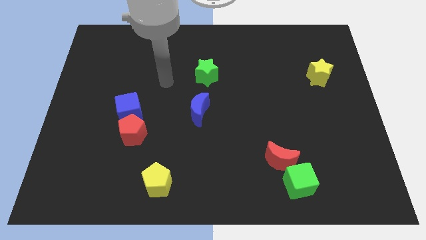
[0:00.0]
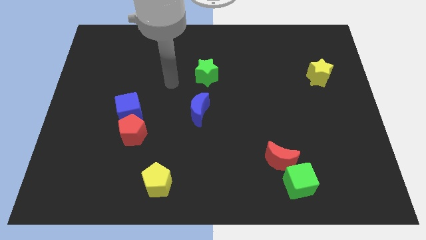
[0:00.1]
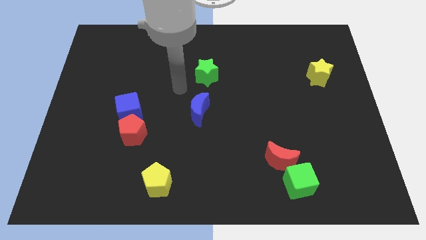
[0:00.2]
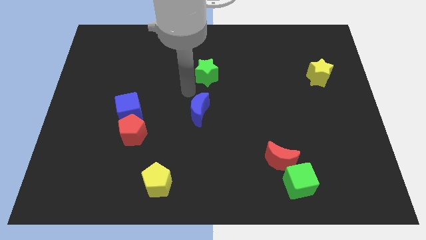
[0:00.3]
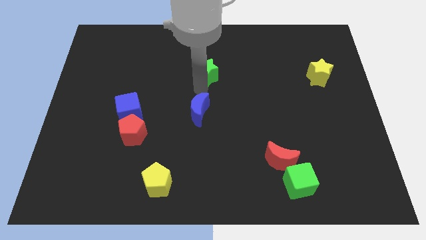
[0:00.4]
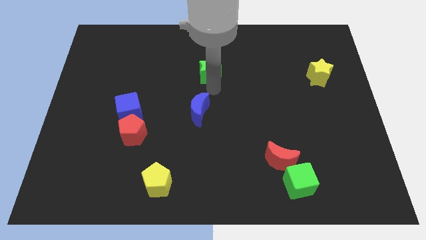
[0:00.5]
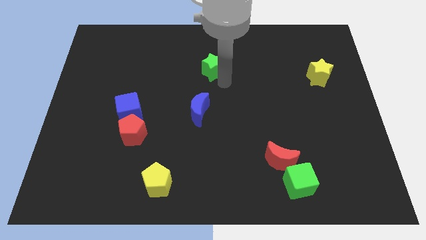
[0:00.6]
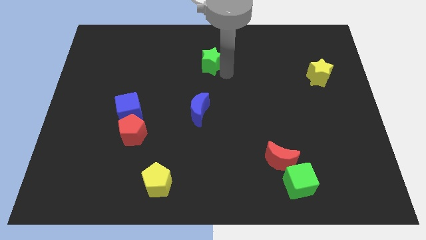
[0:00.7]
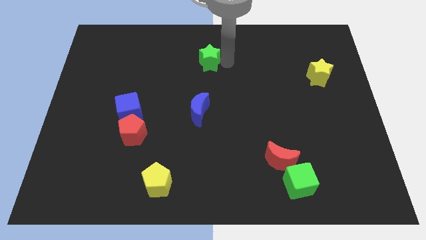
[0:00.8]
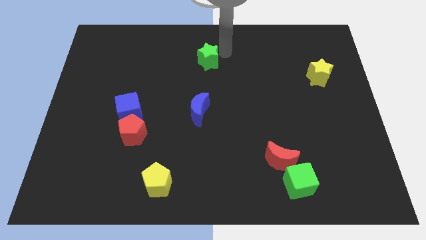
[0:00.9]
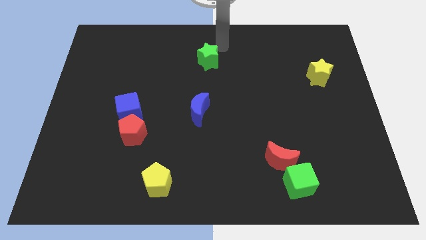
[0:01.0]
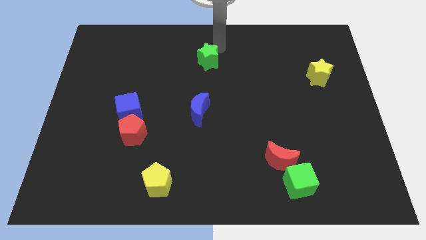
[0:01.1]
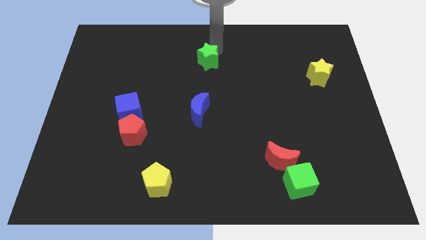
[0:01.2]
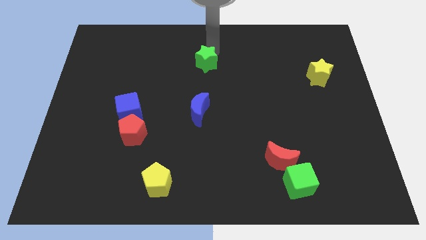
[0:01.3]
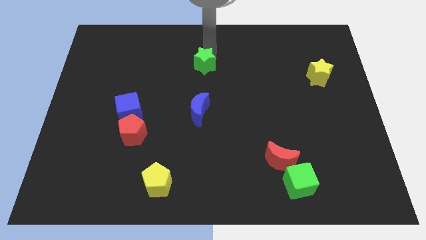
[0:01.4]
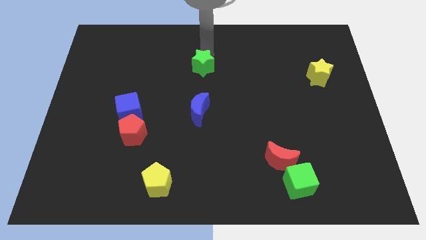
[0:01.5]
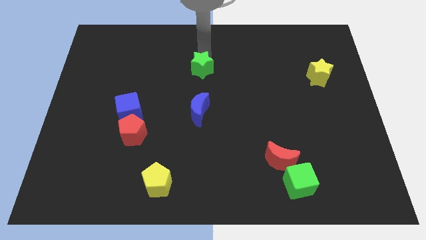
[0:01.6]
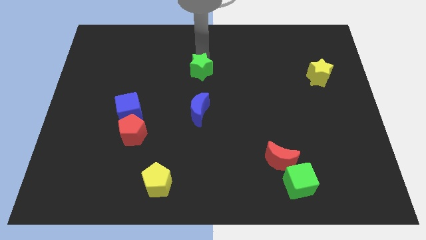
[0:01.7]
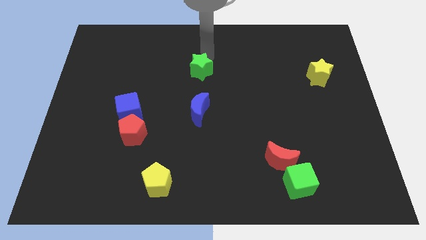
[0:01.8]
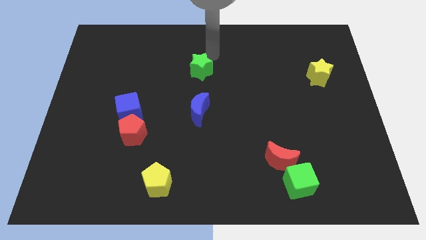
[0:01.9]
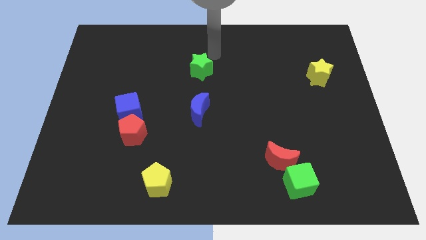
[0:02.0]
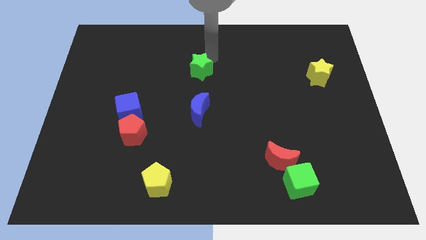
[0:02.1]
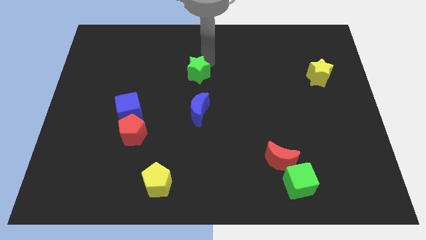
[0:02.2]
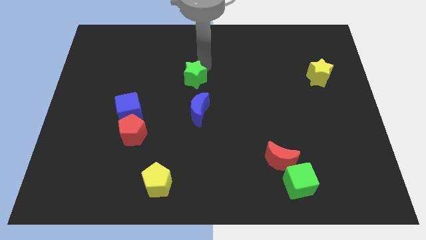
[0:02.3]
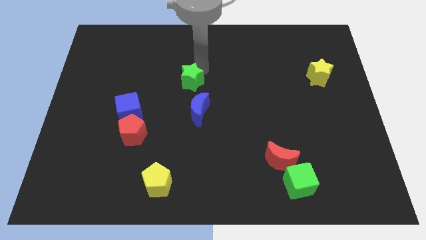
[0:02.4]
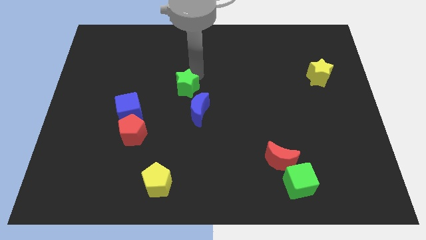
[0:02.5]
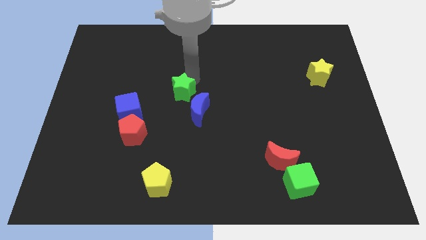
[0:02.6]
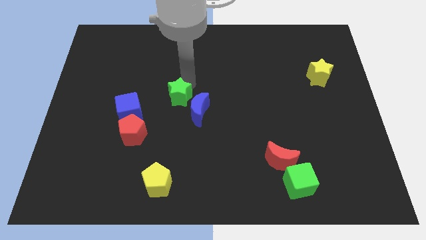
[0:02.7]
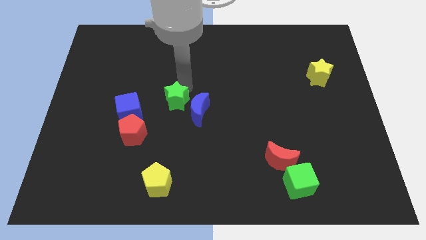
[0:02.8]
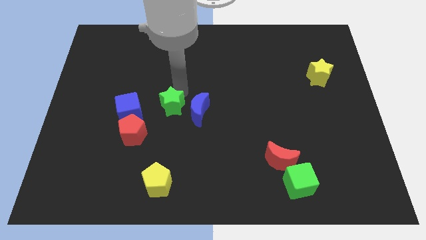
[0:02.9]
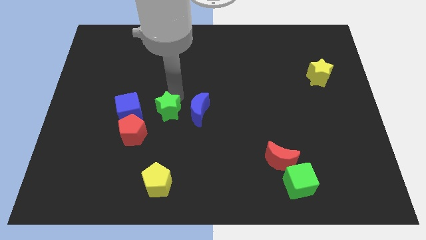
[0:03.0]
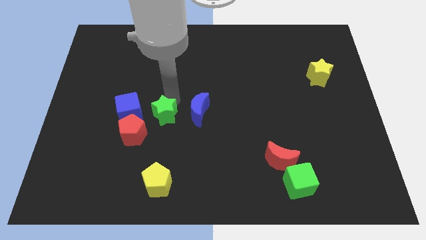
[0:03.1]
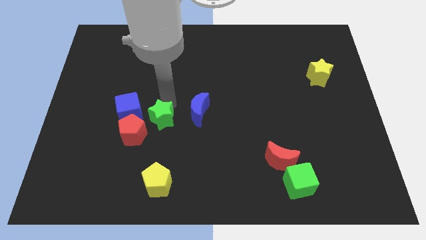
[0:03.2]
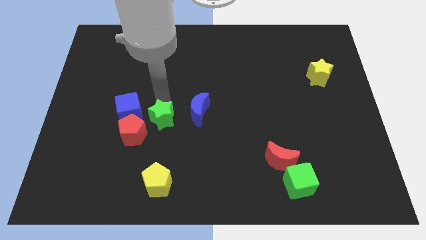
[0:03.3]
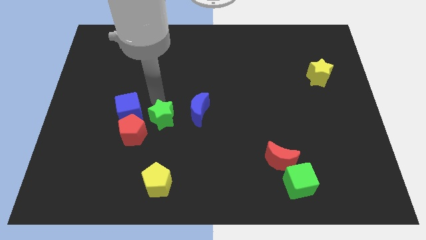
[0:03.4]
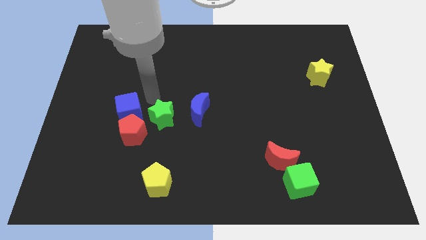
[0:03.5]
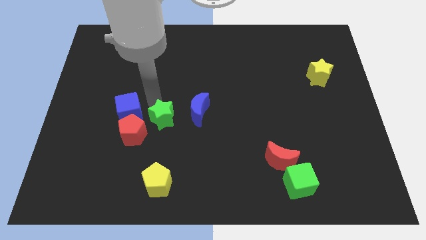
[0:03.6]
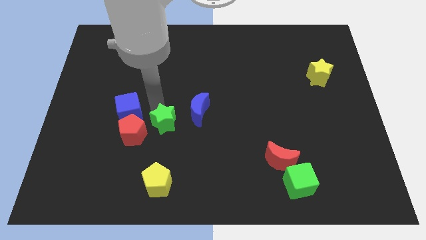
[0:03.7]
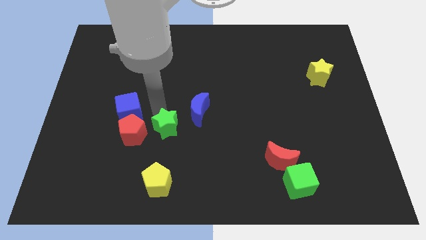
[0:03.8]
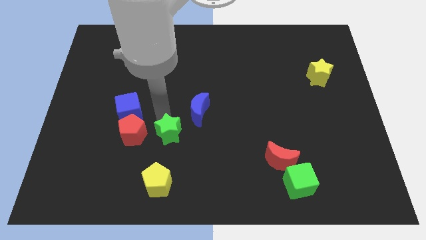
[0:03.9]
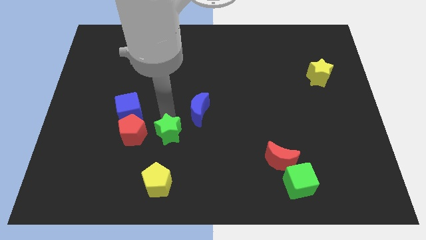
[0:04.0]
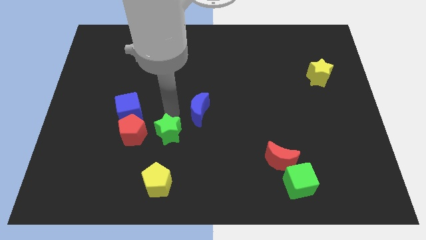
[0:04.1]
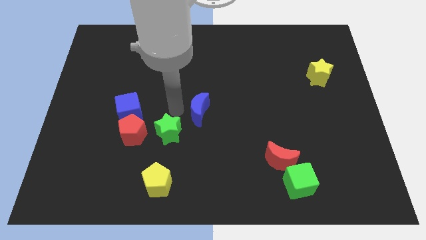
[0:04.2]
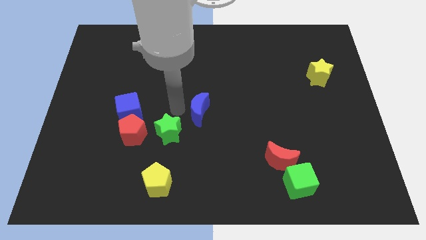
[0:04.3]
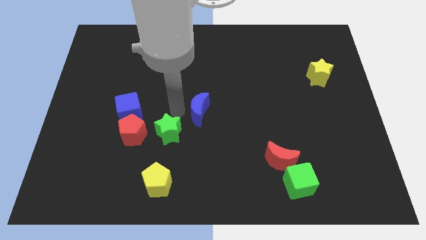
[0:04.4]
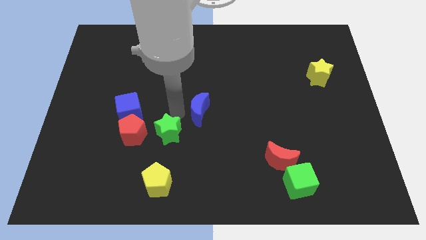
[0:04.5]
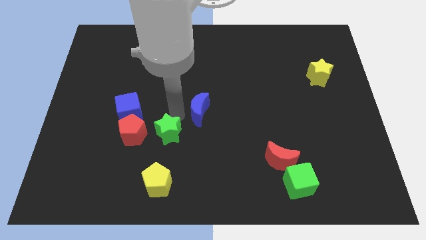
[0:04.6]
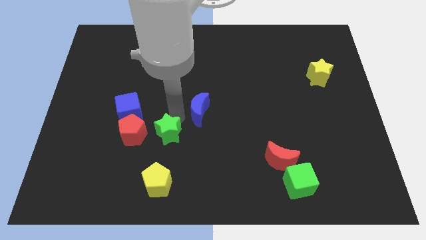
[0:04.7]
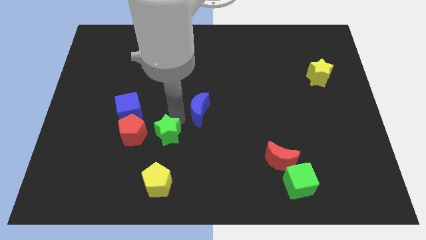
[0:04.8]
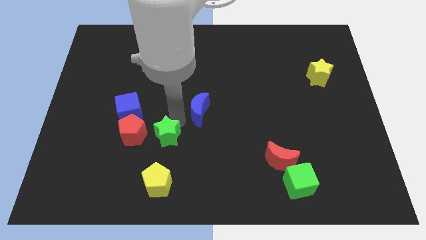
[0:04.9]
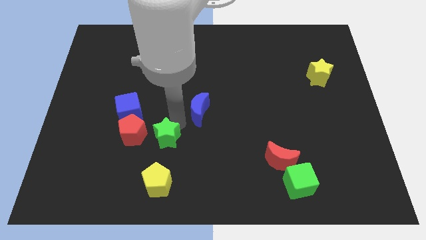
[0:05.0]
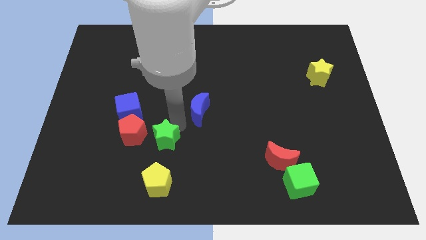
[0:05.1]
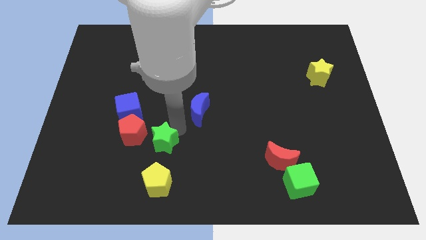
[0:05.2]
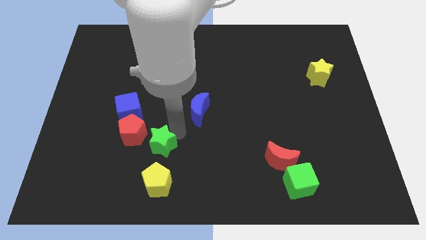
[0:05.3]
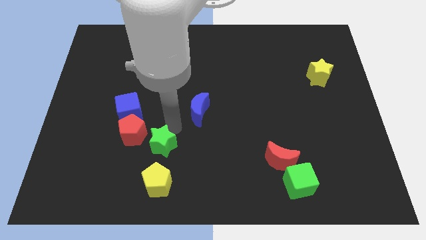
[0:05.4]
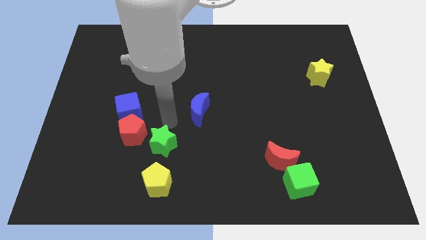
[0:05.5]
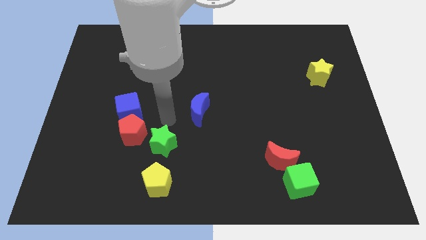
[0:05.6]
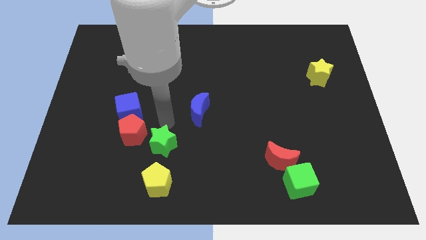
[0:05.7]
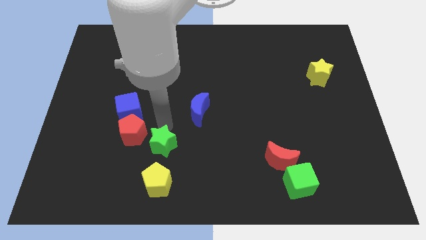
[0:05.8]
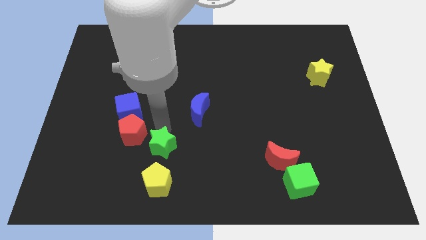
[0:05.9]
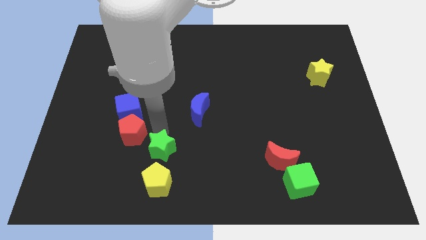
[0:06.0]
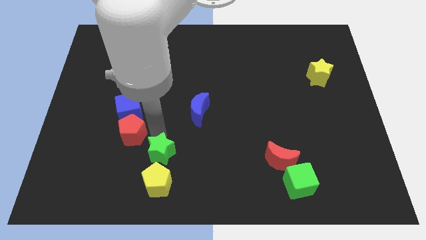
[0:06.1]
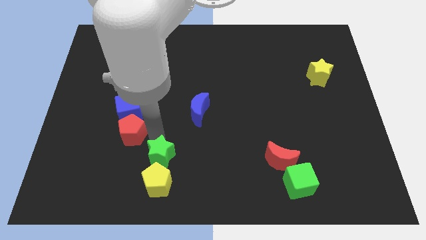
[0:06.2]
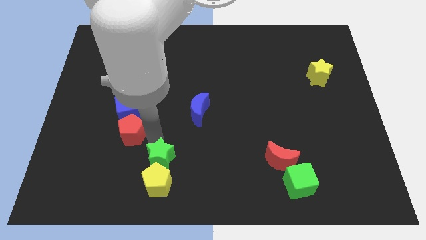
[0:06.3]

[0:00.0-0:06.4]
move the green star towards the yellow pentagon

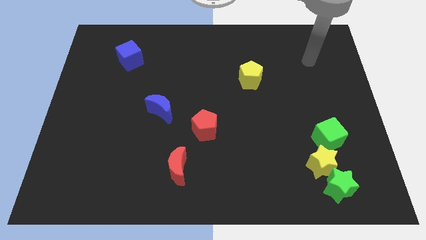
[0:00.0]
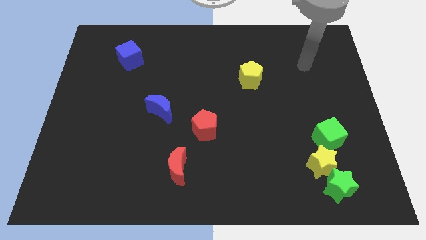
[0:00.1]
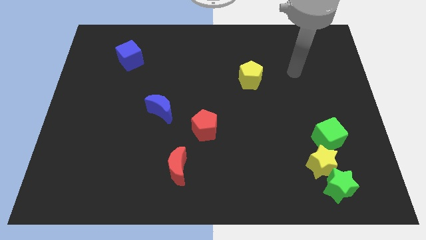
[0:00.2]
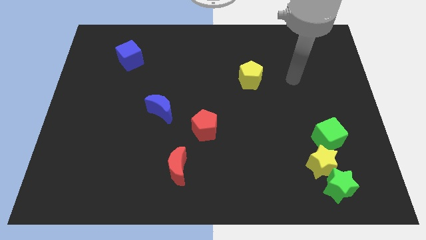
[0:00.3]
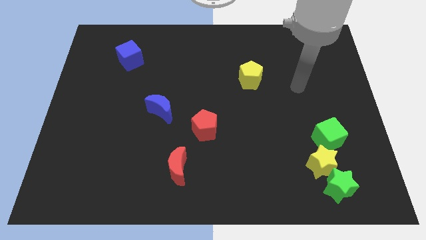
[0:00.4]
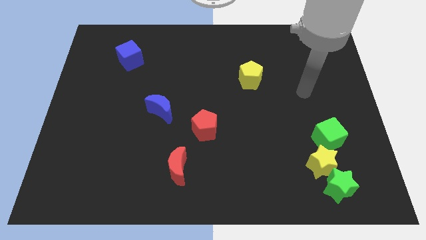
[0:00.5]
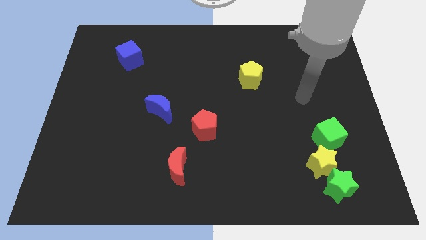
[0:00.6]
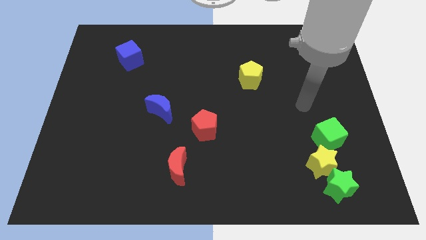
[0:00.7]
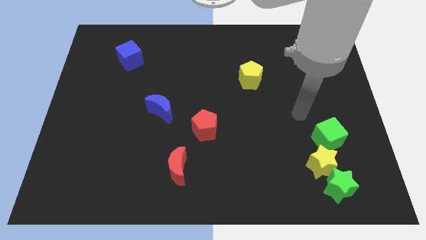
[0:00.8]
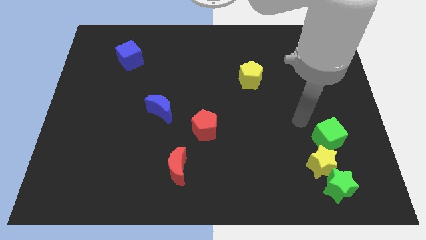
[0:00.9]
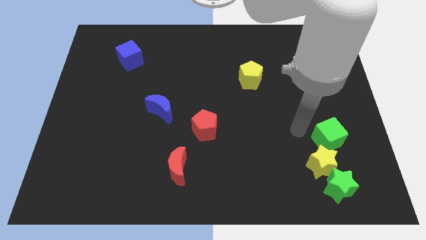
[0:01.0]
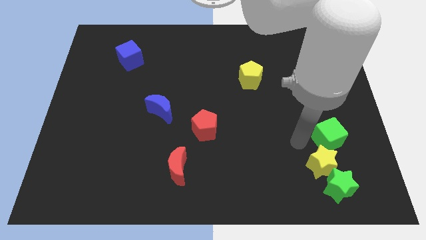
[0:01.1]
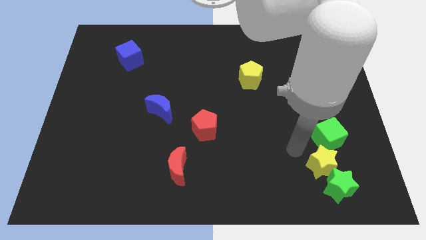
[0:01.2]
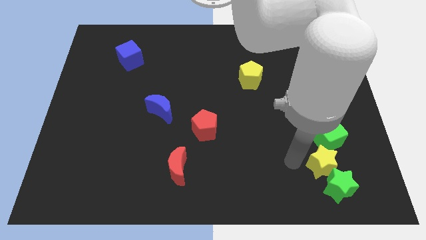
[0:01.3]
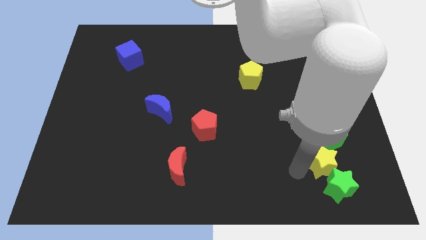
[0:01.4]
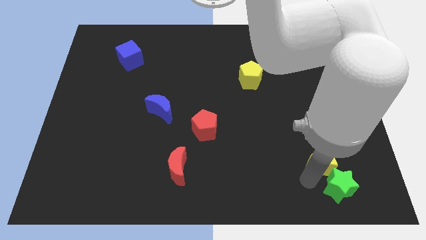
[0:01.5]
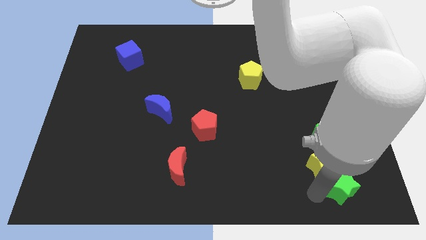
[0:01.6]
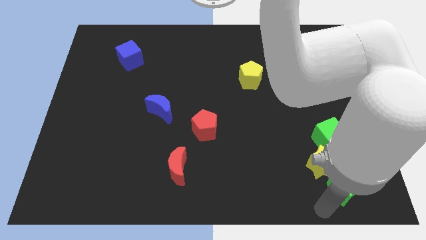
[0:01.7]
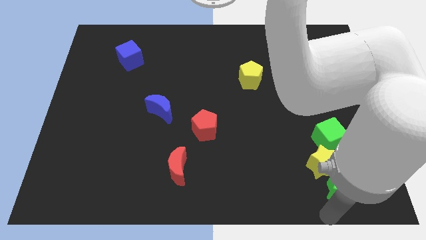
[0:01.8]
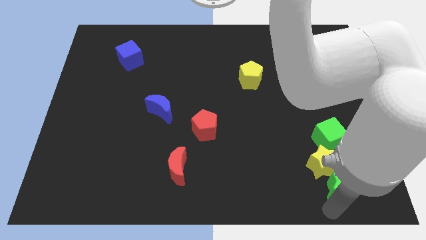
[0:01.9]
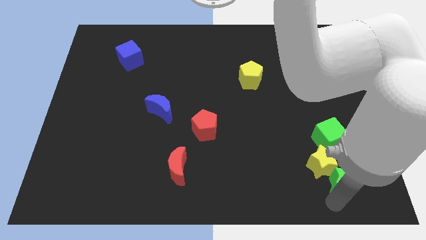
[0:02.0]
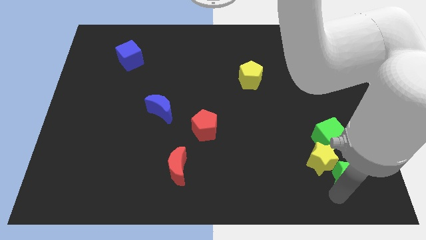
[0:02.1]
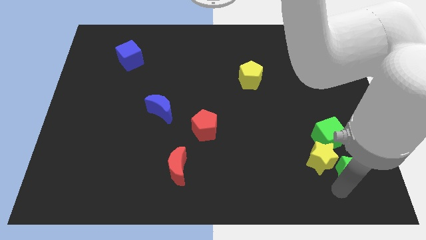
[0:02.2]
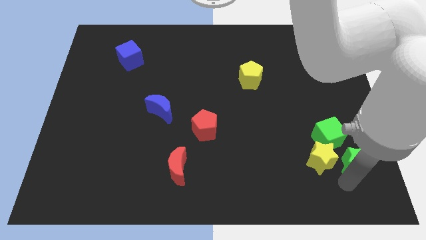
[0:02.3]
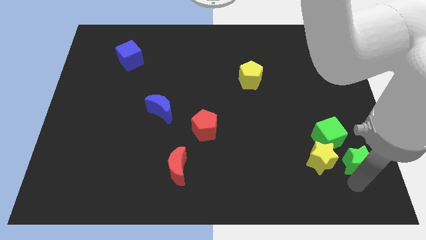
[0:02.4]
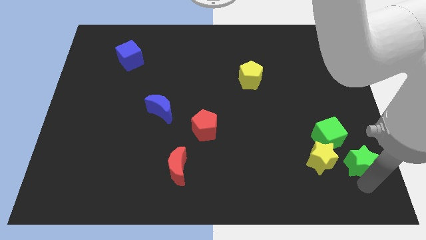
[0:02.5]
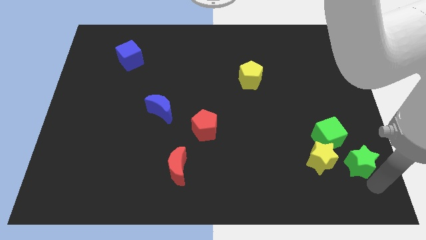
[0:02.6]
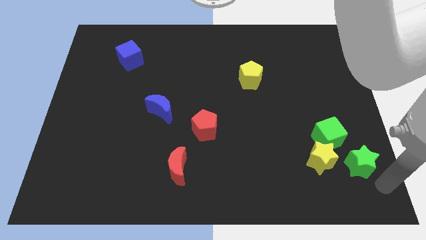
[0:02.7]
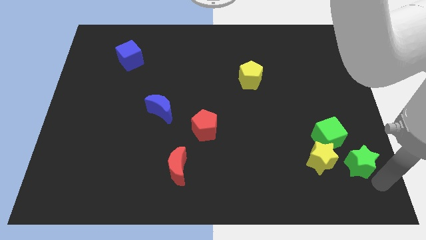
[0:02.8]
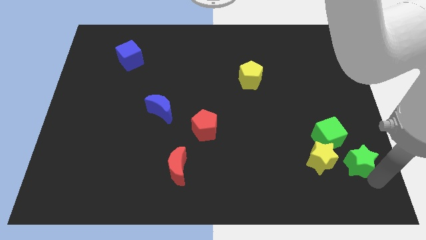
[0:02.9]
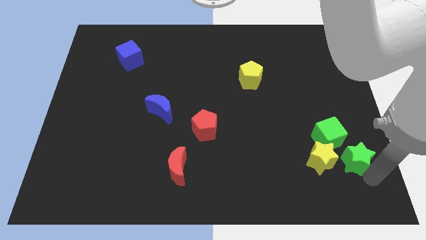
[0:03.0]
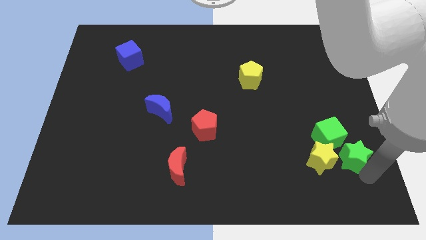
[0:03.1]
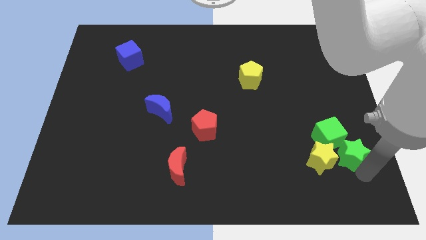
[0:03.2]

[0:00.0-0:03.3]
push the green star close to the green cube
